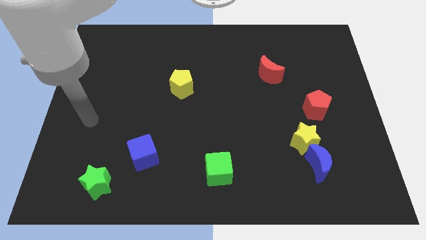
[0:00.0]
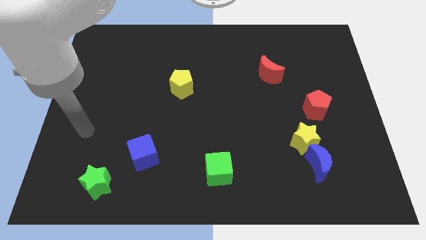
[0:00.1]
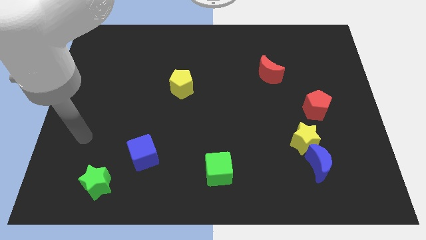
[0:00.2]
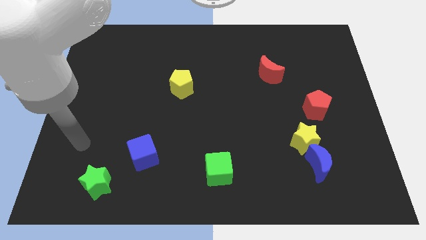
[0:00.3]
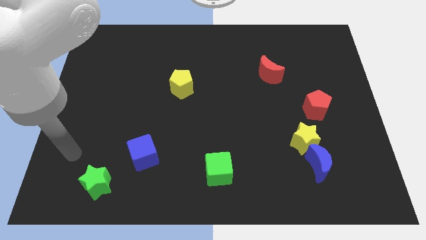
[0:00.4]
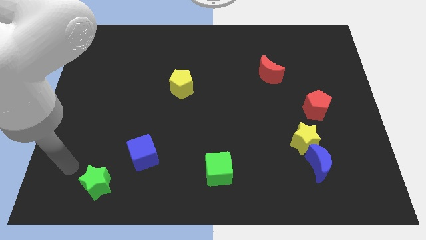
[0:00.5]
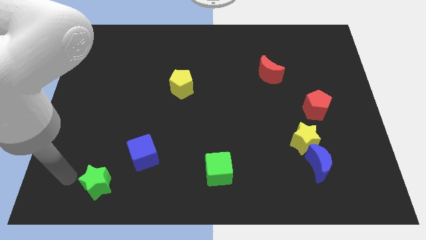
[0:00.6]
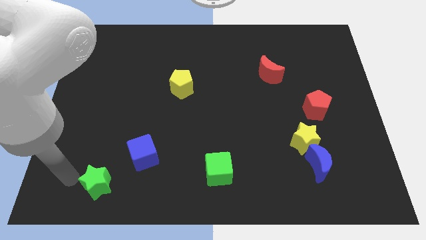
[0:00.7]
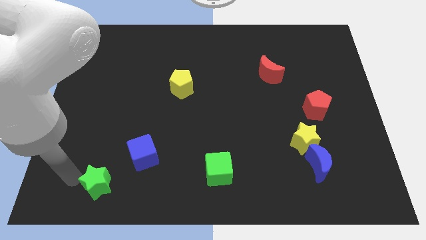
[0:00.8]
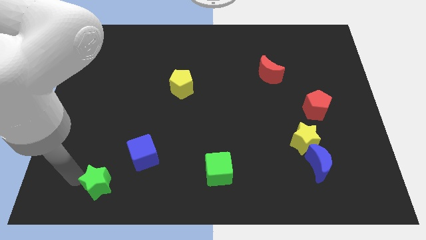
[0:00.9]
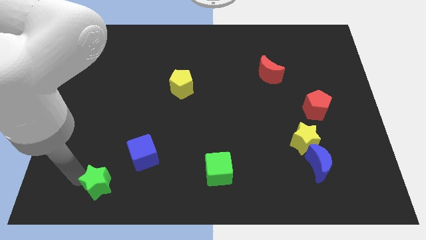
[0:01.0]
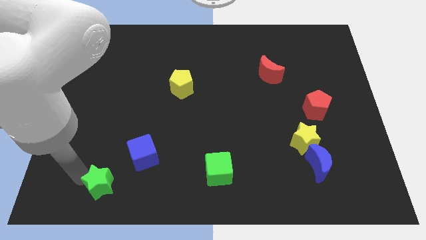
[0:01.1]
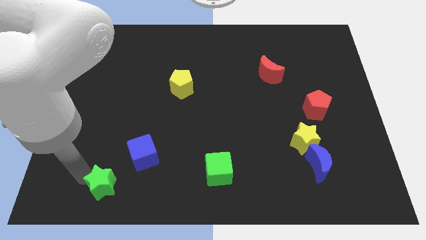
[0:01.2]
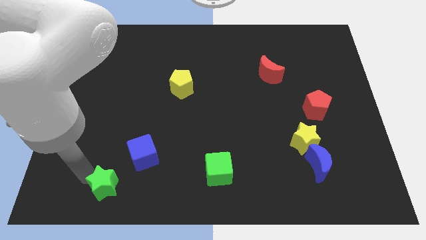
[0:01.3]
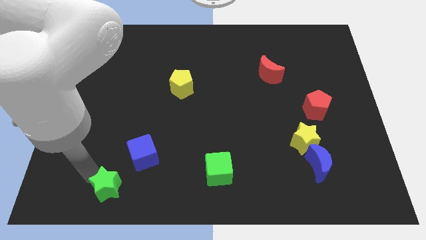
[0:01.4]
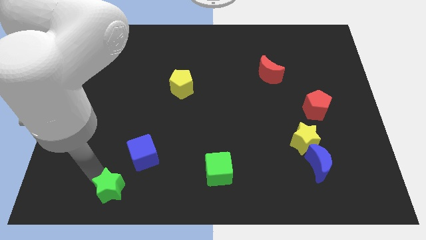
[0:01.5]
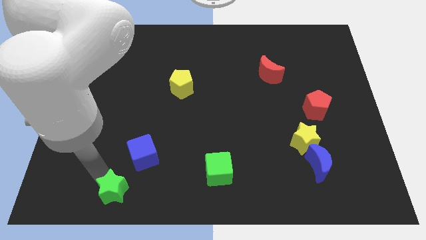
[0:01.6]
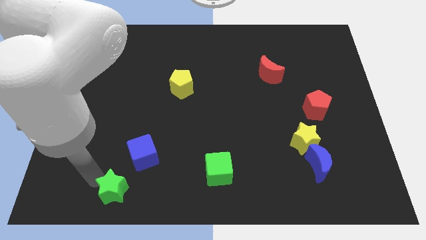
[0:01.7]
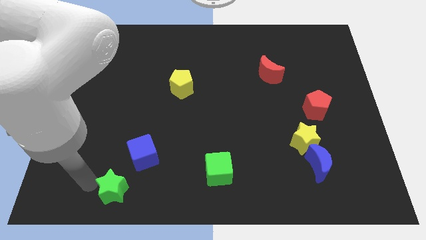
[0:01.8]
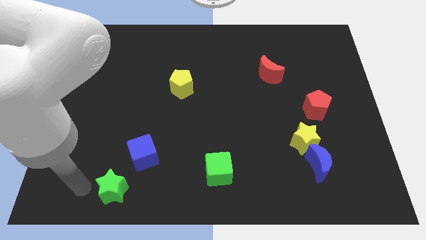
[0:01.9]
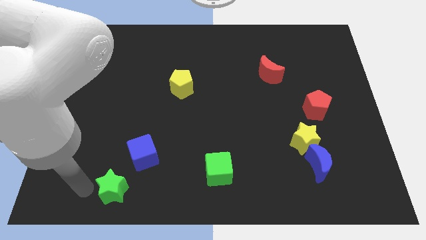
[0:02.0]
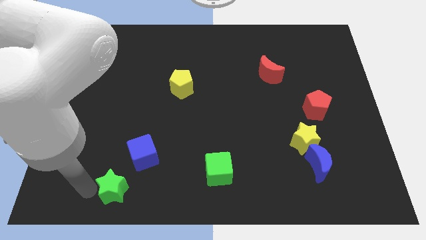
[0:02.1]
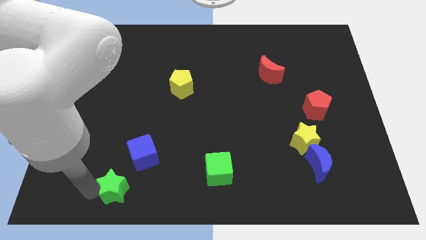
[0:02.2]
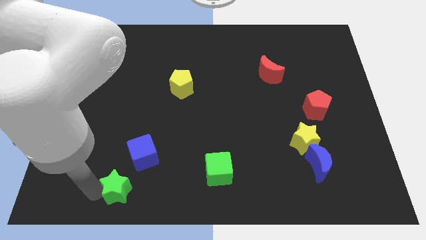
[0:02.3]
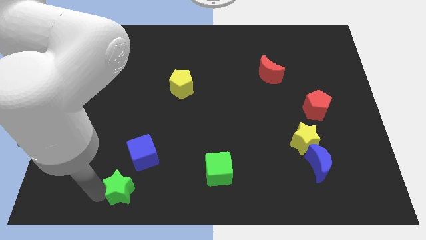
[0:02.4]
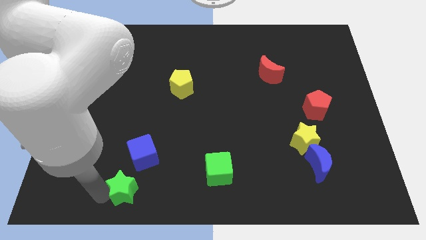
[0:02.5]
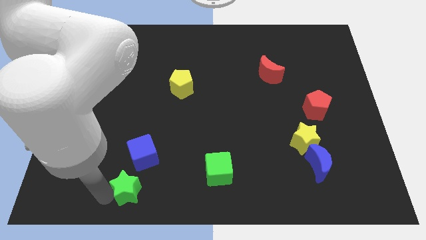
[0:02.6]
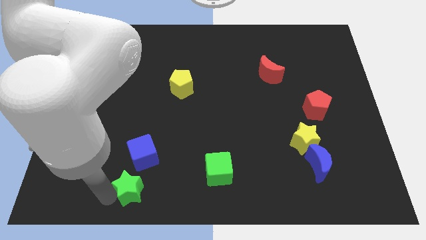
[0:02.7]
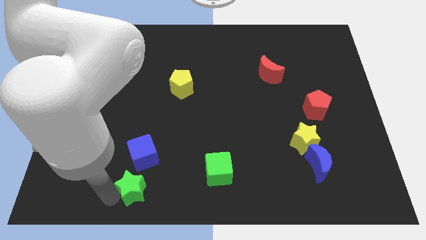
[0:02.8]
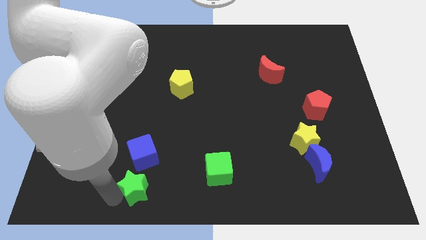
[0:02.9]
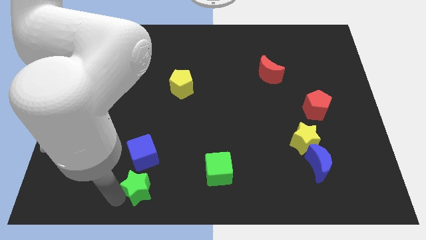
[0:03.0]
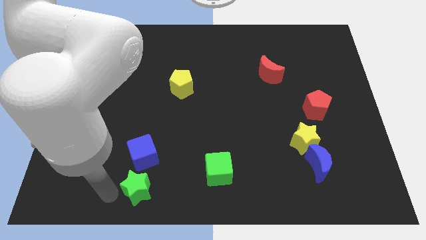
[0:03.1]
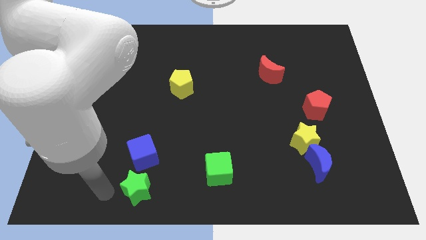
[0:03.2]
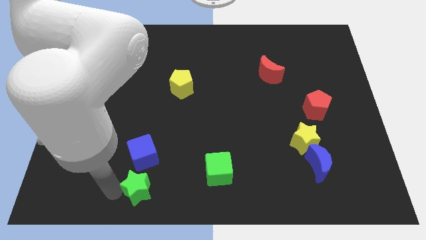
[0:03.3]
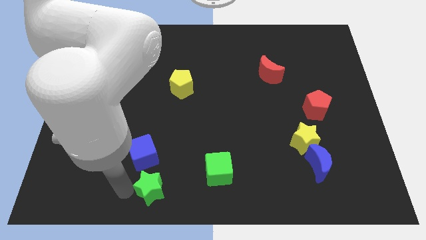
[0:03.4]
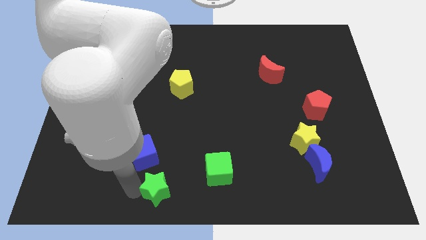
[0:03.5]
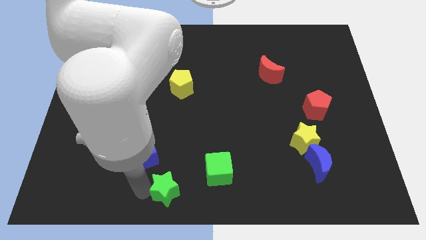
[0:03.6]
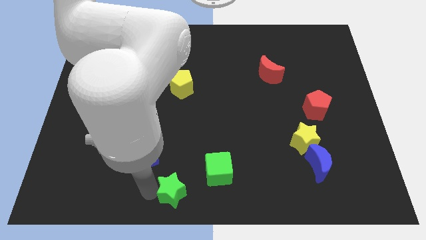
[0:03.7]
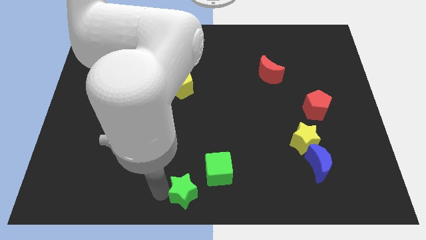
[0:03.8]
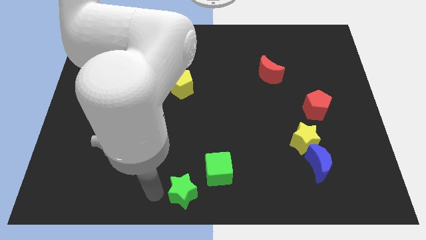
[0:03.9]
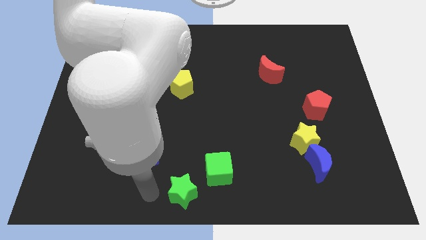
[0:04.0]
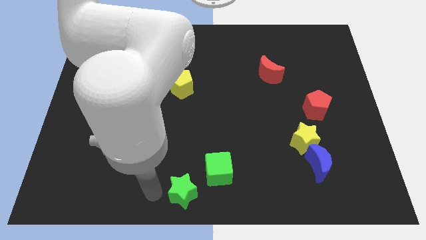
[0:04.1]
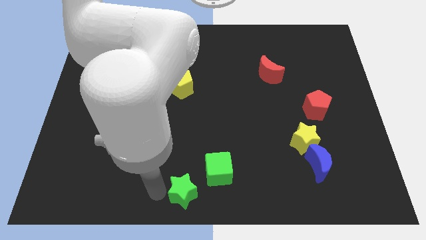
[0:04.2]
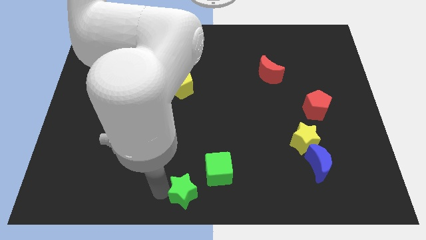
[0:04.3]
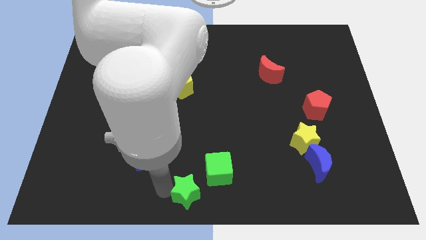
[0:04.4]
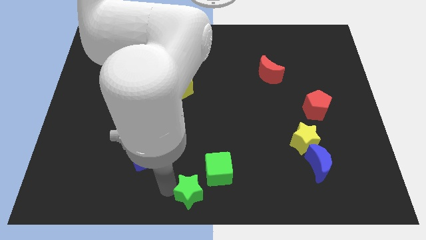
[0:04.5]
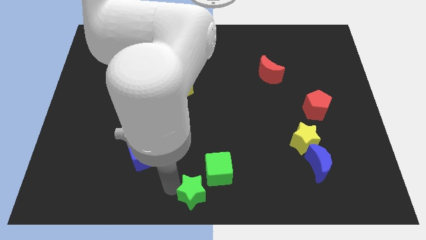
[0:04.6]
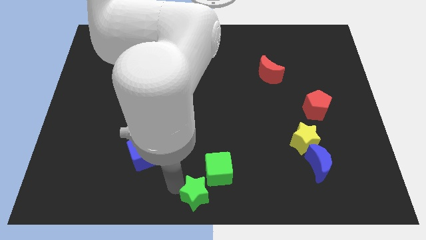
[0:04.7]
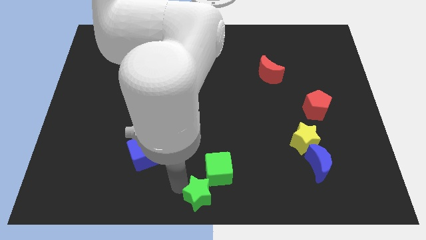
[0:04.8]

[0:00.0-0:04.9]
move the green star to the right

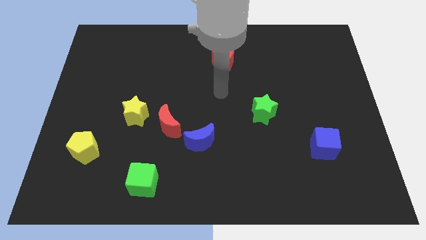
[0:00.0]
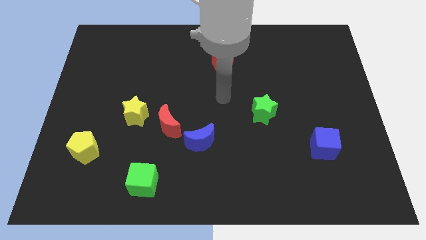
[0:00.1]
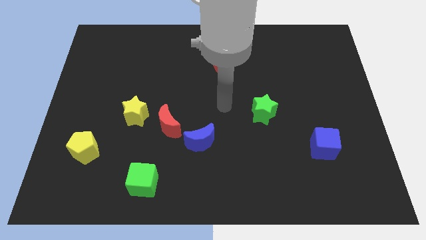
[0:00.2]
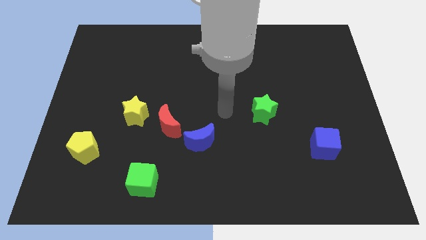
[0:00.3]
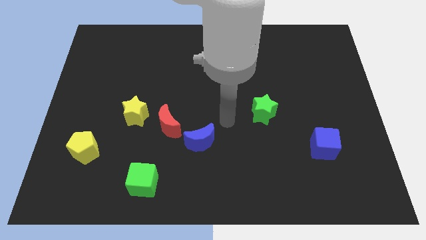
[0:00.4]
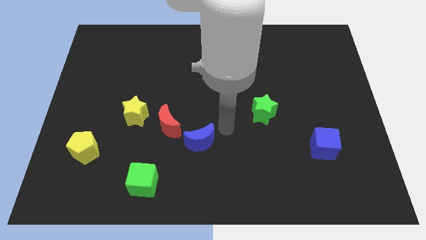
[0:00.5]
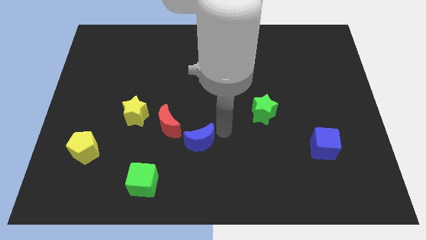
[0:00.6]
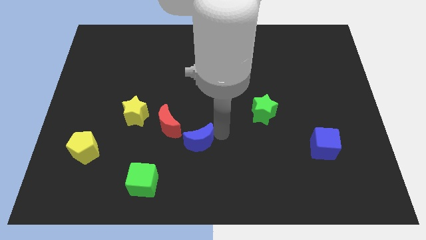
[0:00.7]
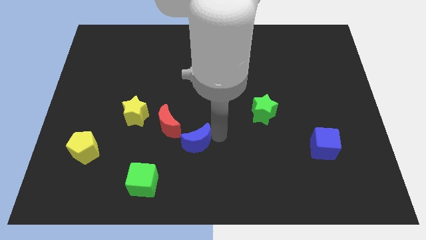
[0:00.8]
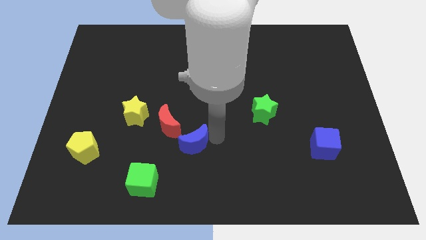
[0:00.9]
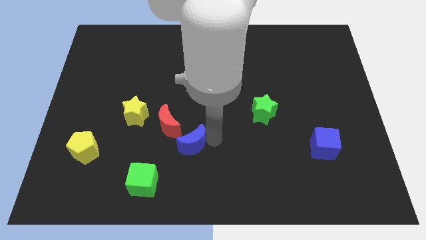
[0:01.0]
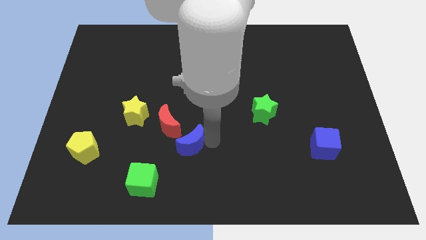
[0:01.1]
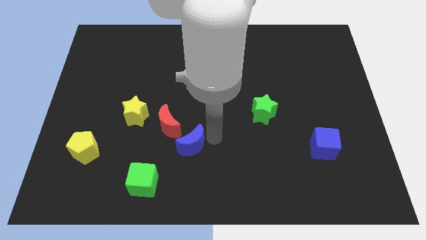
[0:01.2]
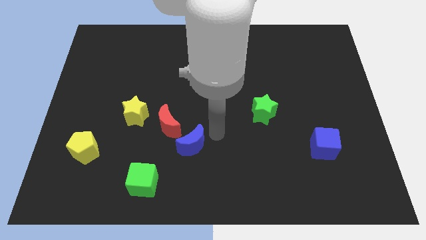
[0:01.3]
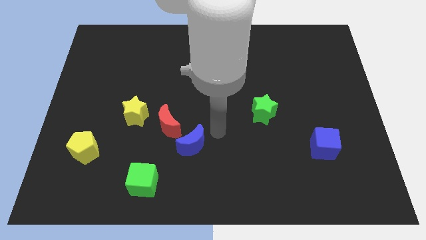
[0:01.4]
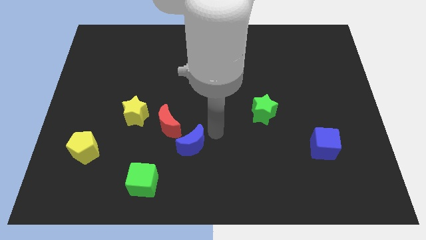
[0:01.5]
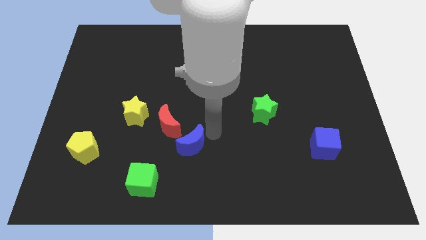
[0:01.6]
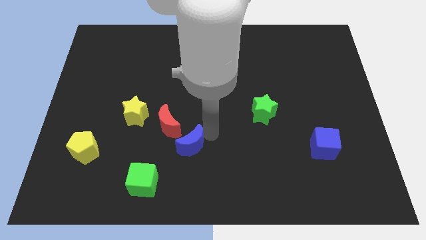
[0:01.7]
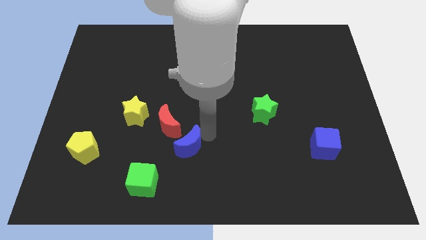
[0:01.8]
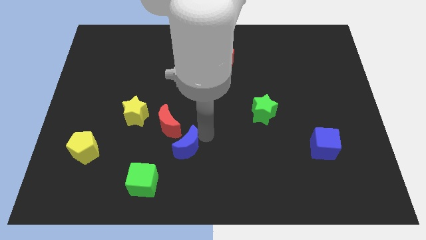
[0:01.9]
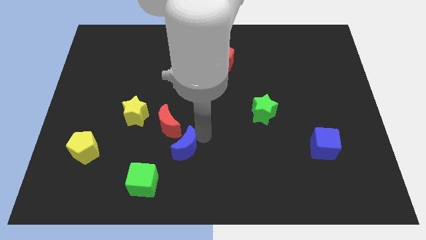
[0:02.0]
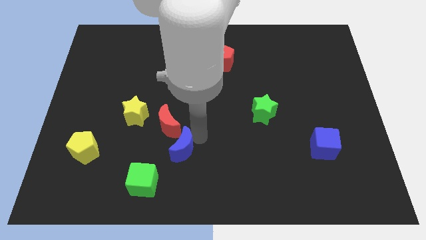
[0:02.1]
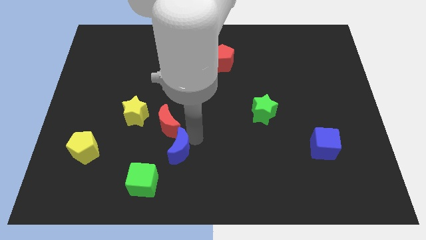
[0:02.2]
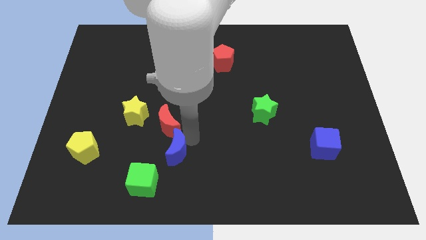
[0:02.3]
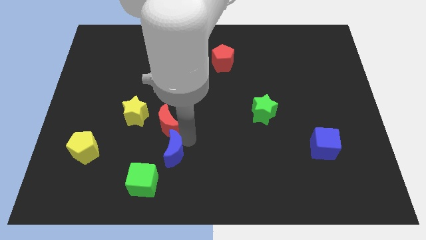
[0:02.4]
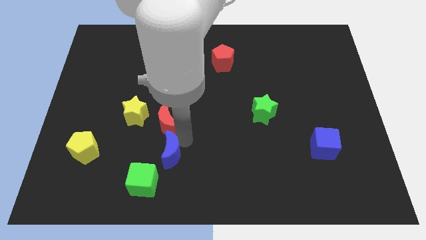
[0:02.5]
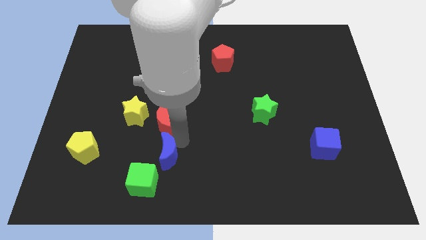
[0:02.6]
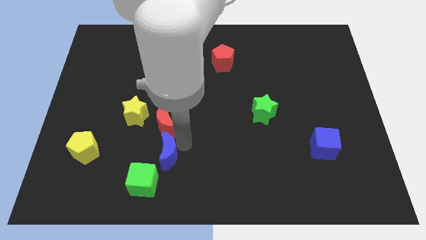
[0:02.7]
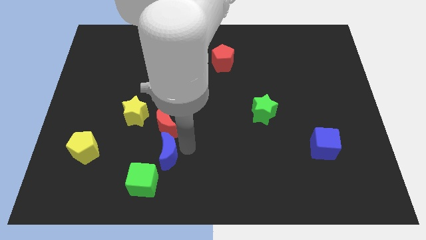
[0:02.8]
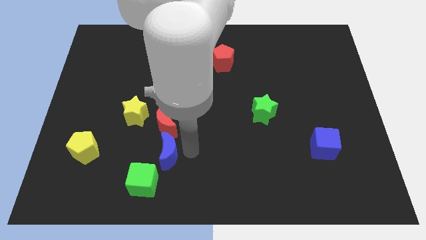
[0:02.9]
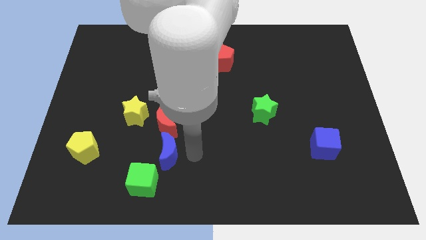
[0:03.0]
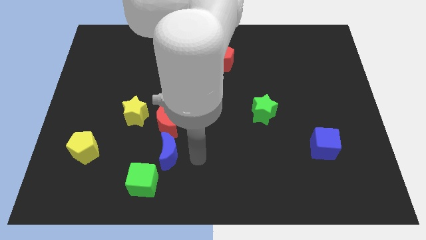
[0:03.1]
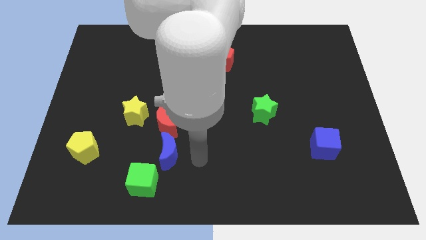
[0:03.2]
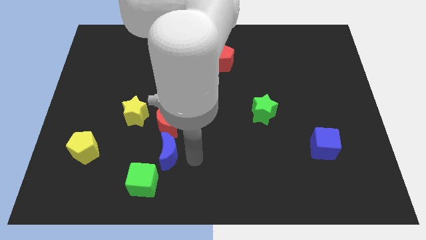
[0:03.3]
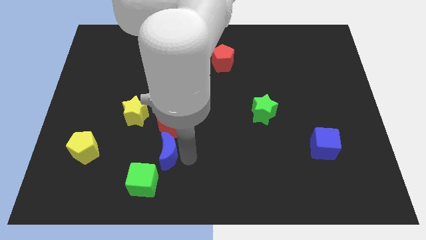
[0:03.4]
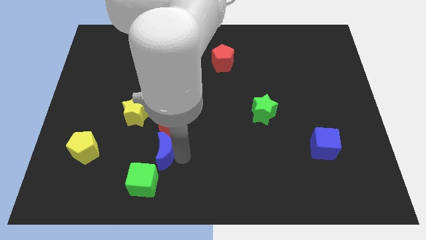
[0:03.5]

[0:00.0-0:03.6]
move the blue moon to the left slightly
